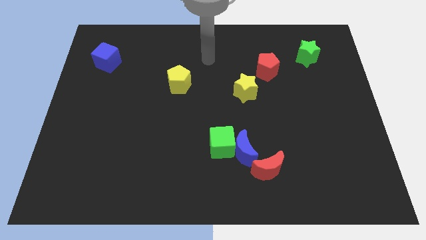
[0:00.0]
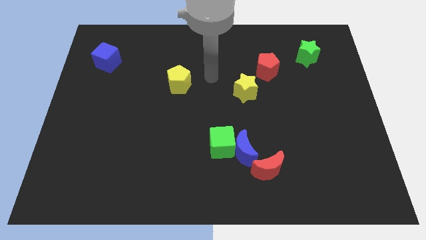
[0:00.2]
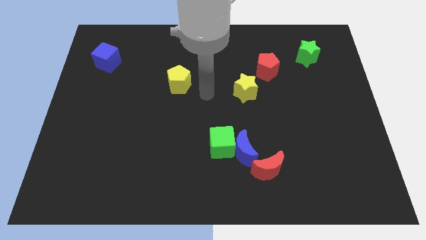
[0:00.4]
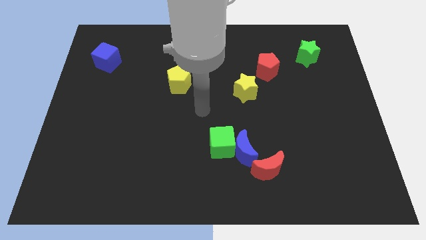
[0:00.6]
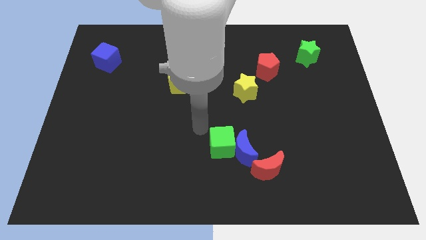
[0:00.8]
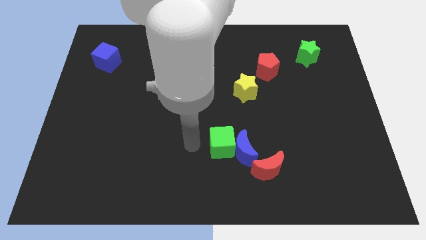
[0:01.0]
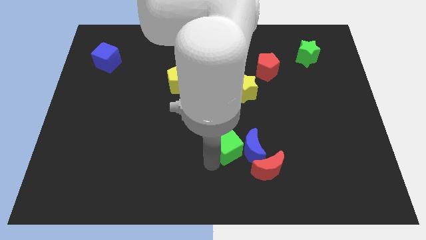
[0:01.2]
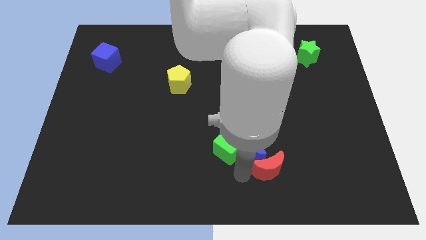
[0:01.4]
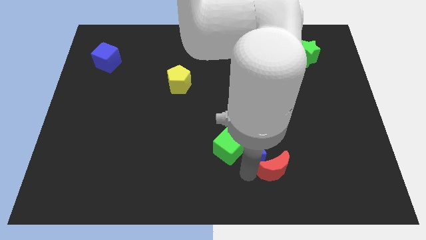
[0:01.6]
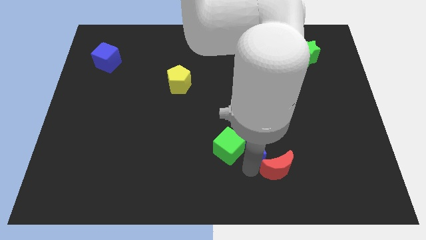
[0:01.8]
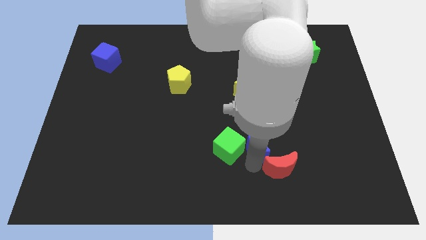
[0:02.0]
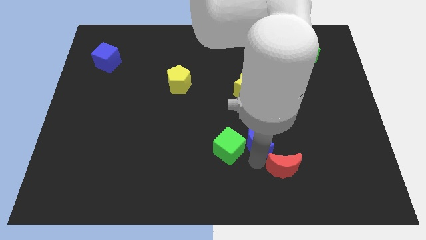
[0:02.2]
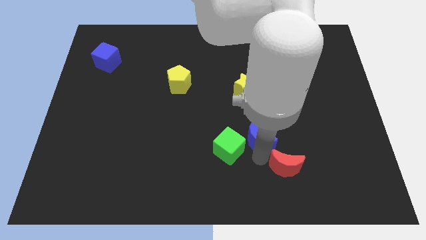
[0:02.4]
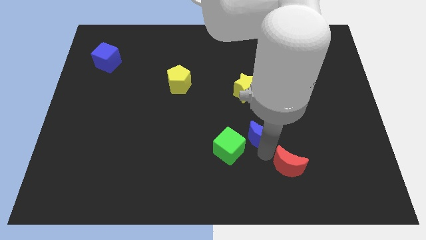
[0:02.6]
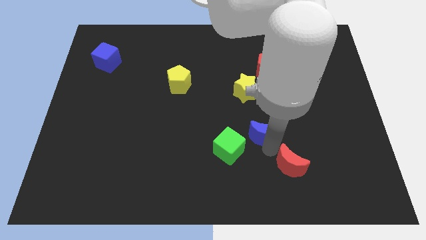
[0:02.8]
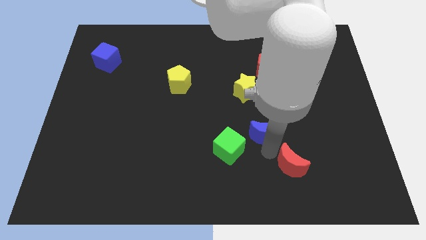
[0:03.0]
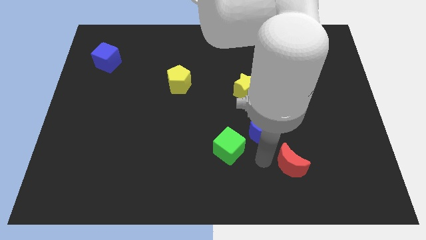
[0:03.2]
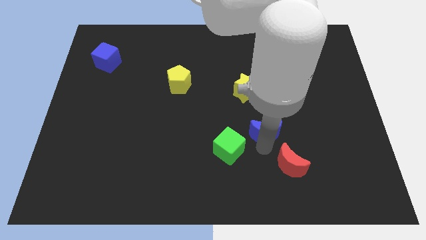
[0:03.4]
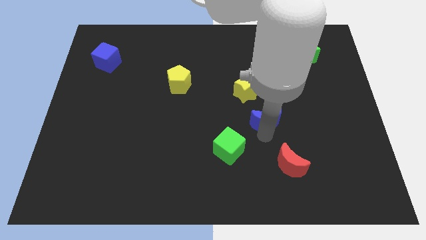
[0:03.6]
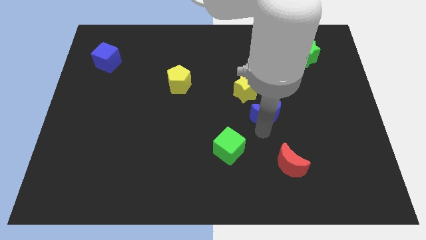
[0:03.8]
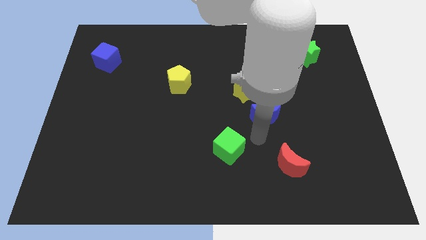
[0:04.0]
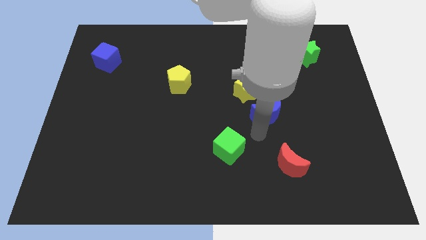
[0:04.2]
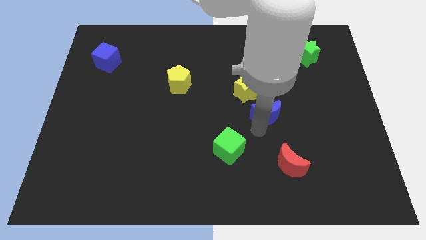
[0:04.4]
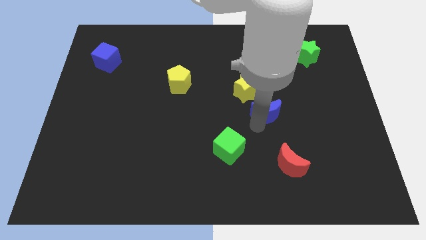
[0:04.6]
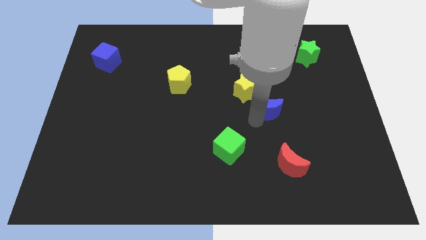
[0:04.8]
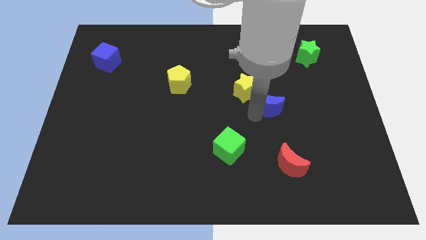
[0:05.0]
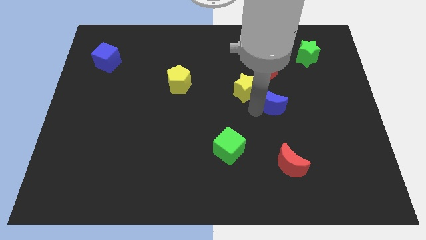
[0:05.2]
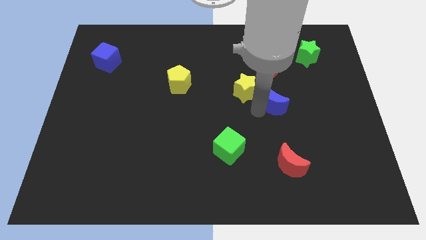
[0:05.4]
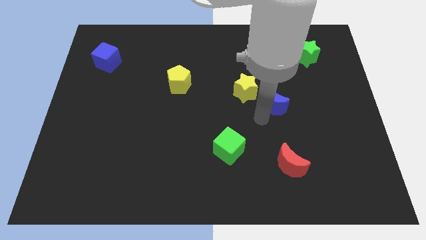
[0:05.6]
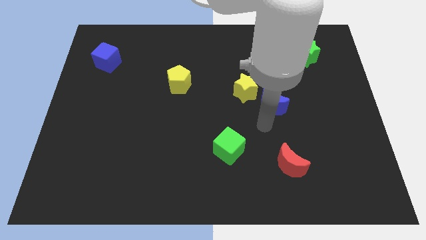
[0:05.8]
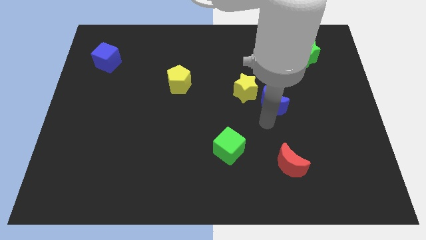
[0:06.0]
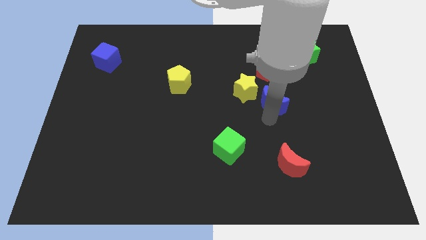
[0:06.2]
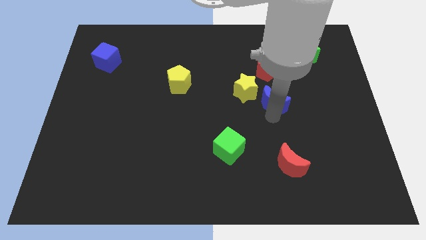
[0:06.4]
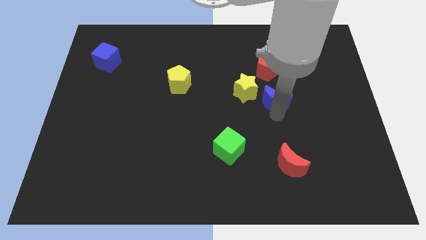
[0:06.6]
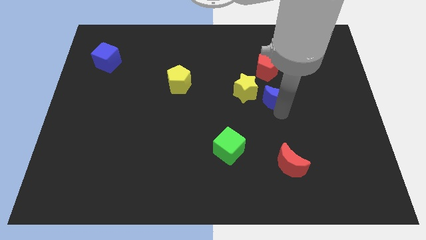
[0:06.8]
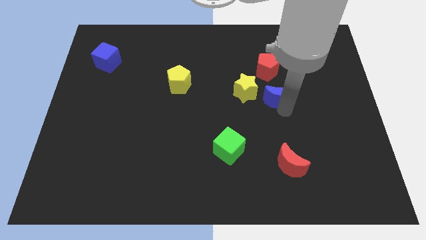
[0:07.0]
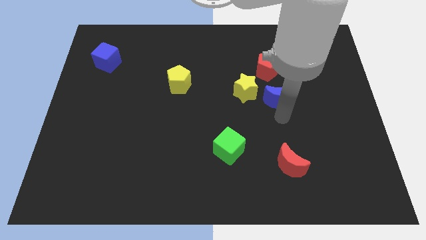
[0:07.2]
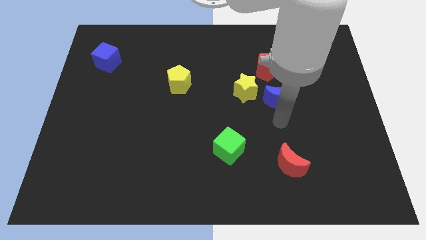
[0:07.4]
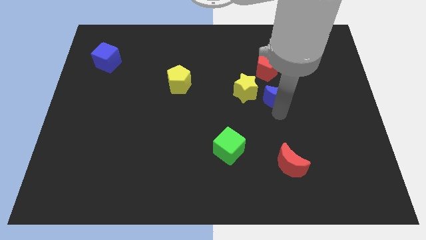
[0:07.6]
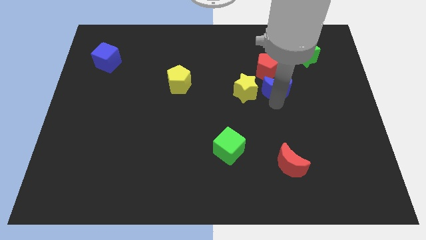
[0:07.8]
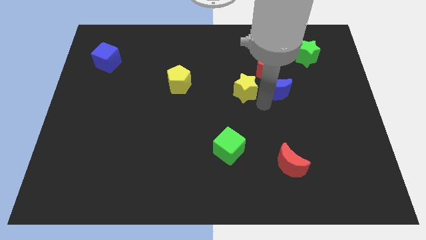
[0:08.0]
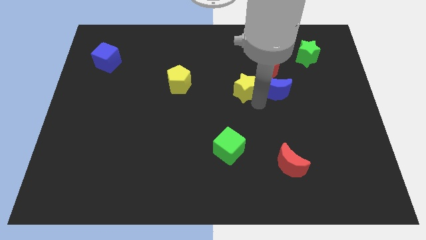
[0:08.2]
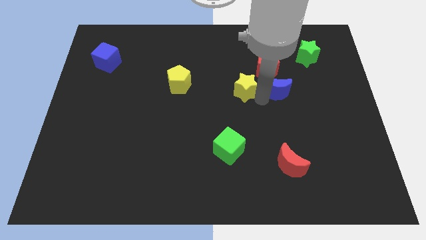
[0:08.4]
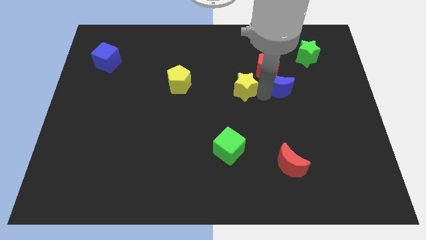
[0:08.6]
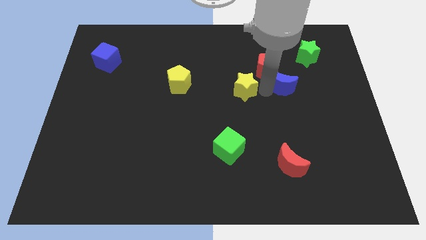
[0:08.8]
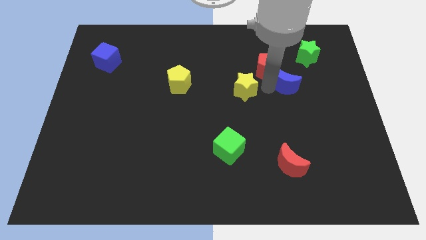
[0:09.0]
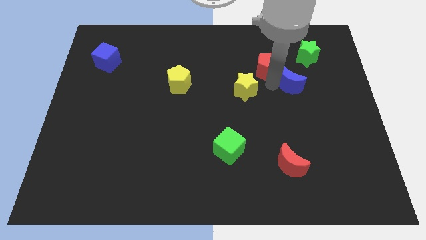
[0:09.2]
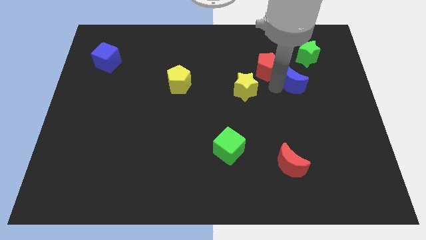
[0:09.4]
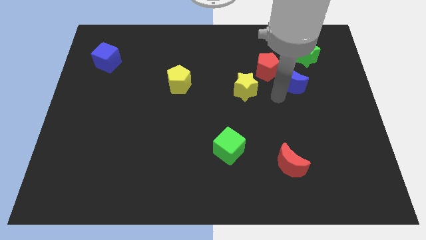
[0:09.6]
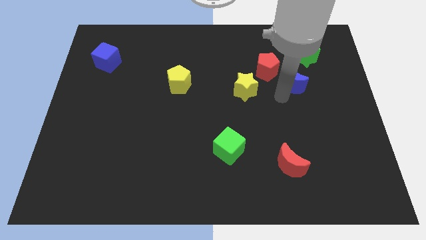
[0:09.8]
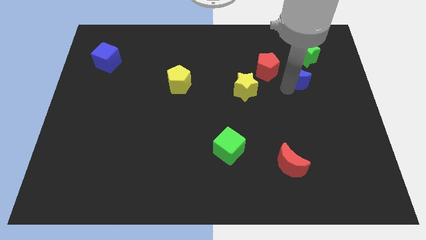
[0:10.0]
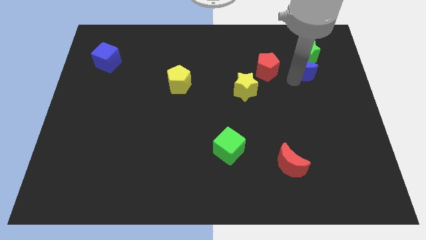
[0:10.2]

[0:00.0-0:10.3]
put the blue moon to the green star

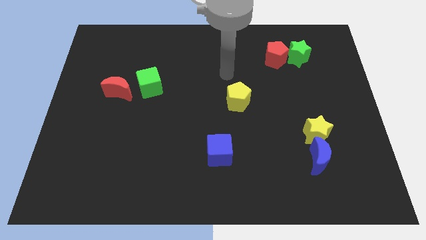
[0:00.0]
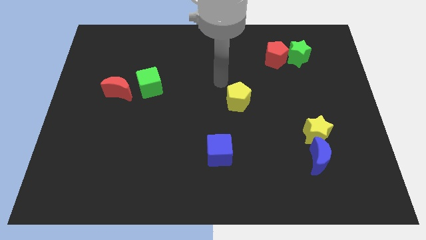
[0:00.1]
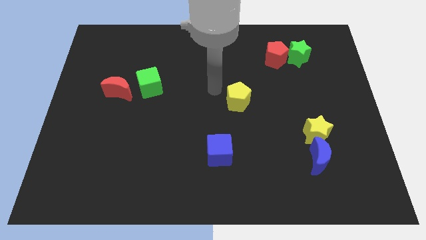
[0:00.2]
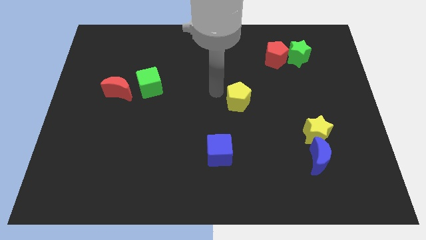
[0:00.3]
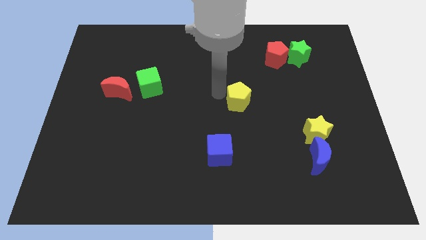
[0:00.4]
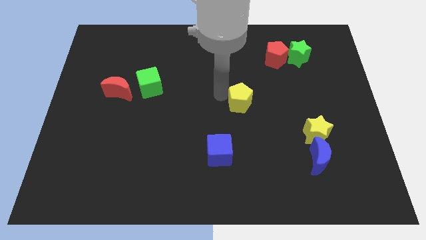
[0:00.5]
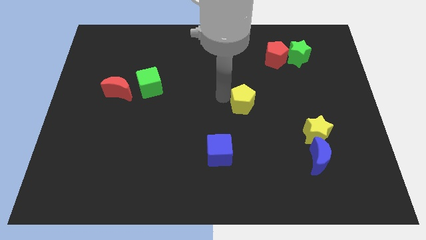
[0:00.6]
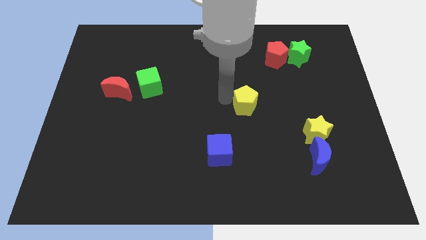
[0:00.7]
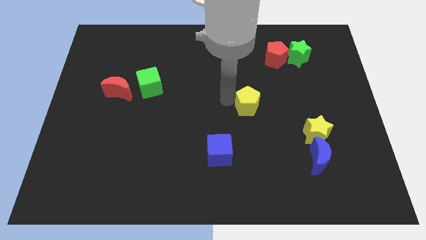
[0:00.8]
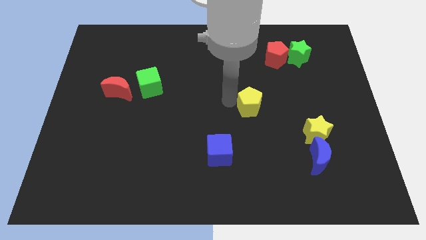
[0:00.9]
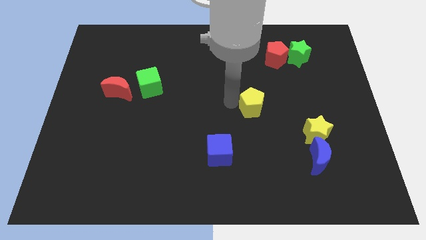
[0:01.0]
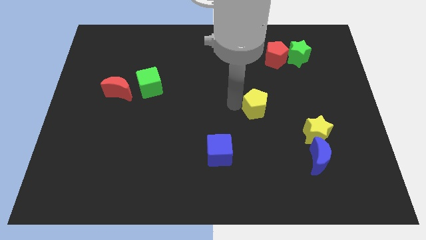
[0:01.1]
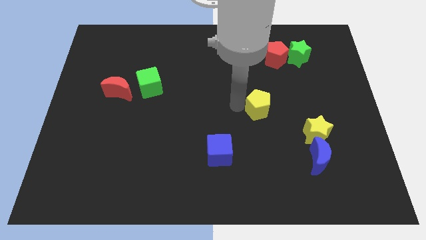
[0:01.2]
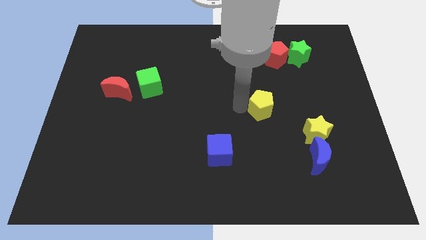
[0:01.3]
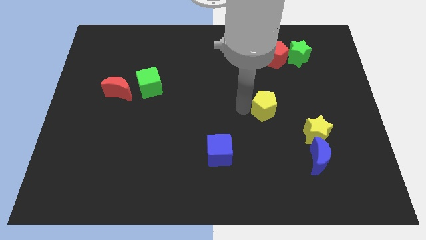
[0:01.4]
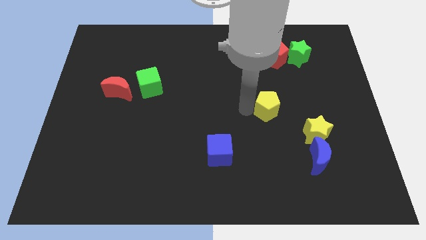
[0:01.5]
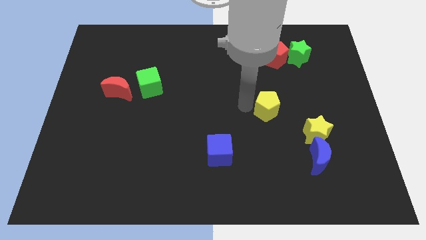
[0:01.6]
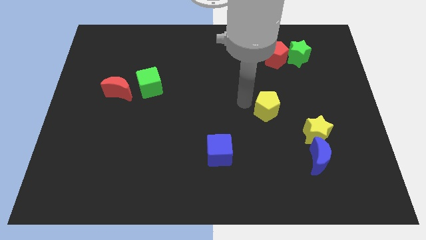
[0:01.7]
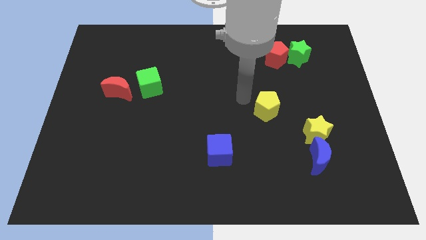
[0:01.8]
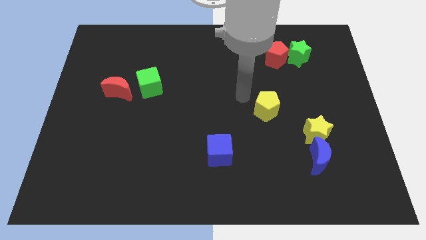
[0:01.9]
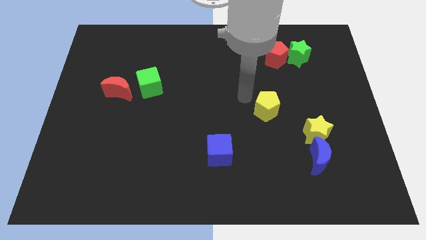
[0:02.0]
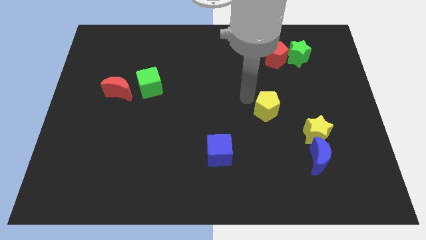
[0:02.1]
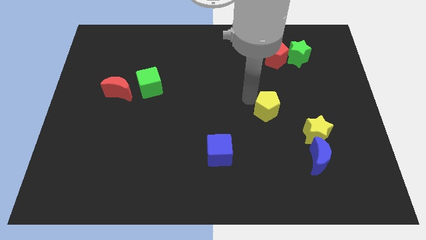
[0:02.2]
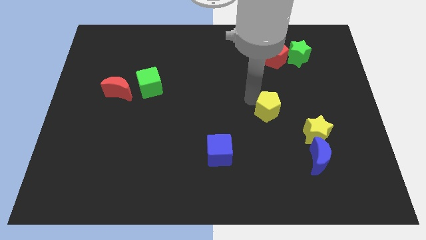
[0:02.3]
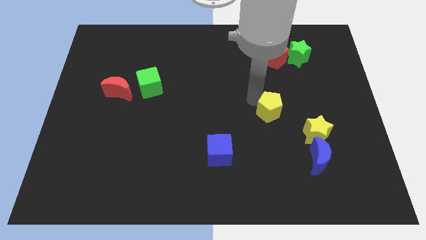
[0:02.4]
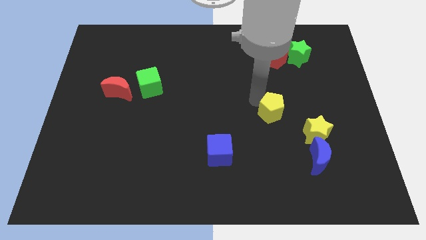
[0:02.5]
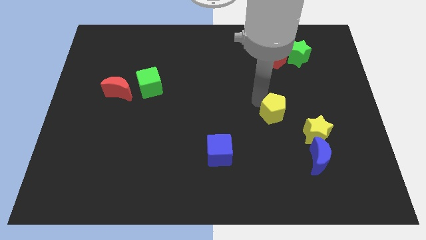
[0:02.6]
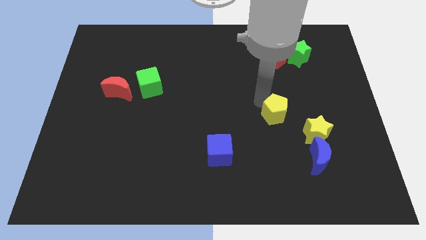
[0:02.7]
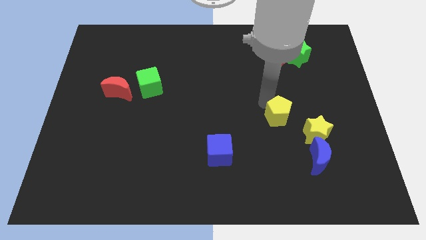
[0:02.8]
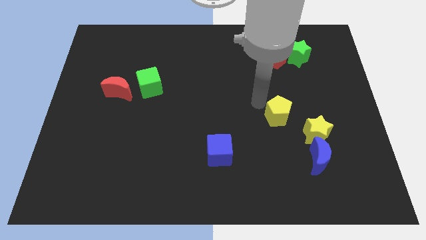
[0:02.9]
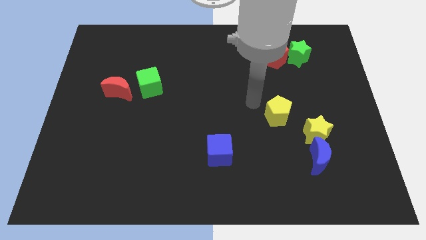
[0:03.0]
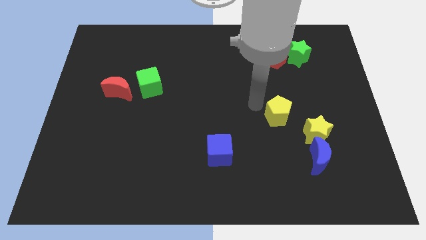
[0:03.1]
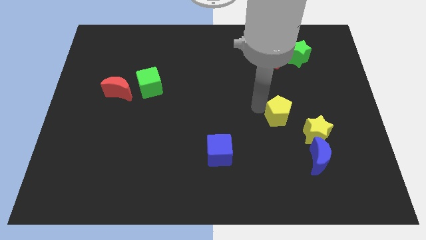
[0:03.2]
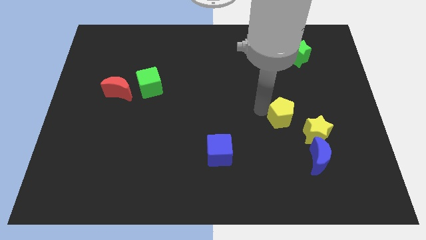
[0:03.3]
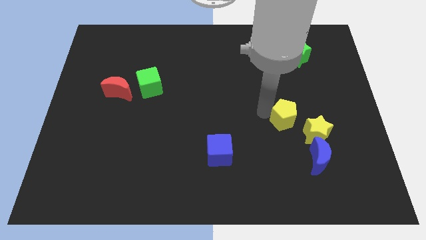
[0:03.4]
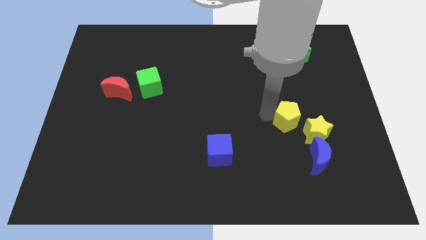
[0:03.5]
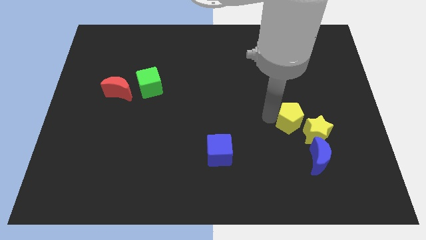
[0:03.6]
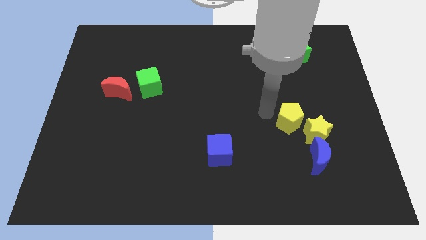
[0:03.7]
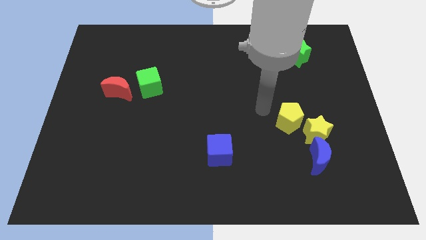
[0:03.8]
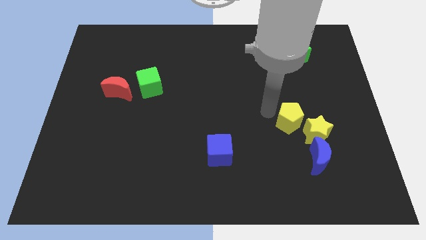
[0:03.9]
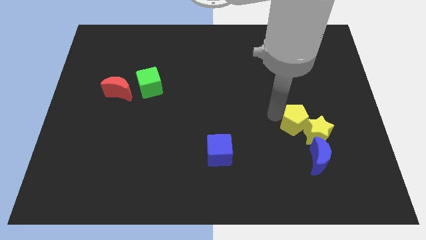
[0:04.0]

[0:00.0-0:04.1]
push the yellow pentagon towards the yellow star
